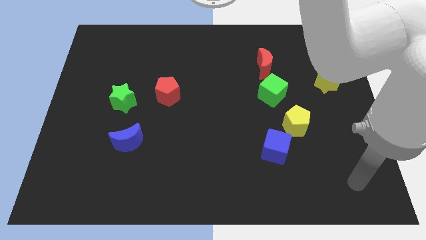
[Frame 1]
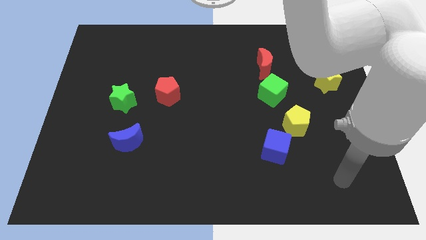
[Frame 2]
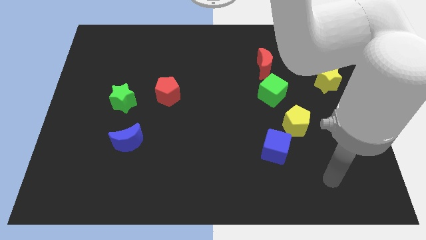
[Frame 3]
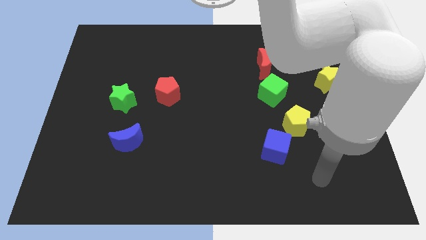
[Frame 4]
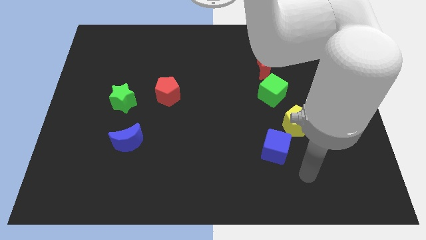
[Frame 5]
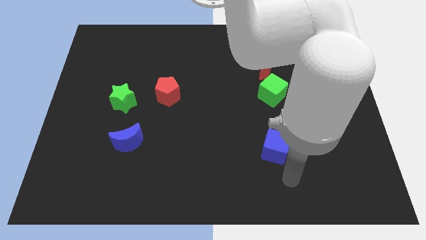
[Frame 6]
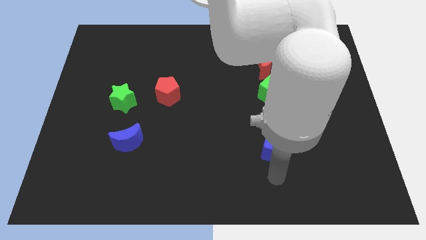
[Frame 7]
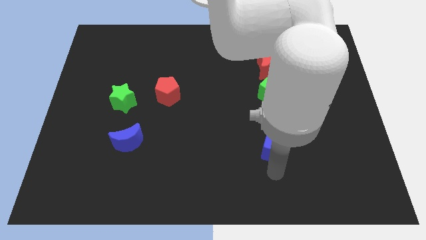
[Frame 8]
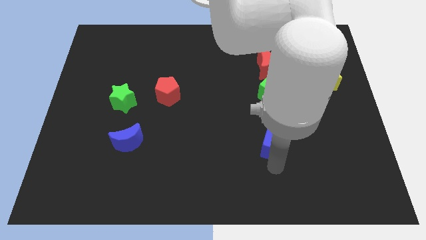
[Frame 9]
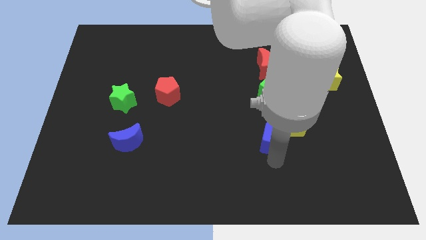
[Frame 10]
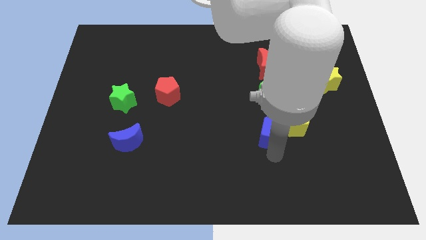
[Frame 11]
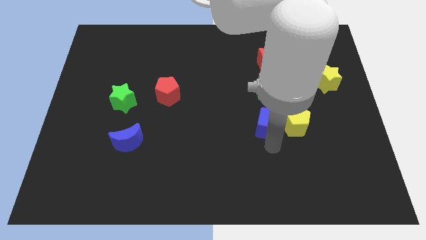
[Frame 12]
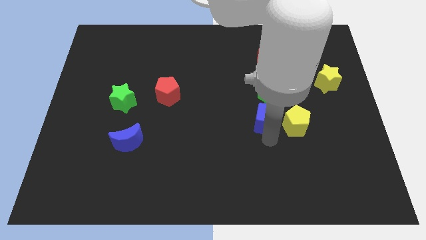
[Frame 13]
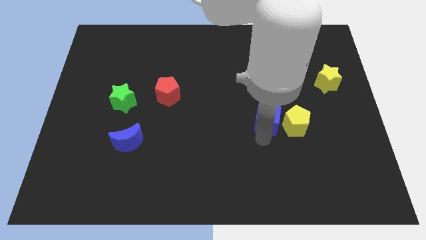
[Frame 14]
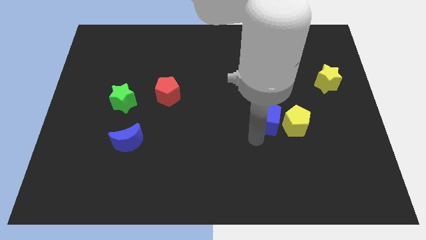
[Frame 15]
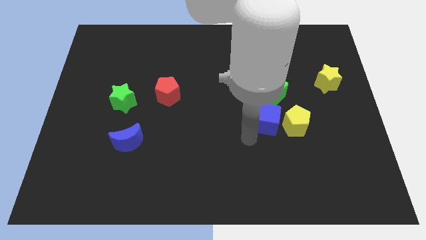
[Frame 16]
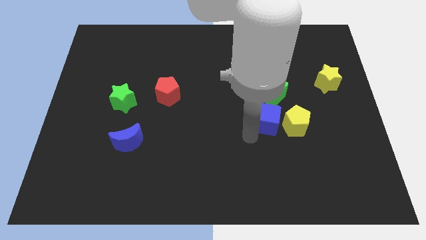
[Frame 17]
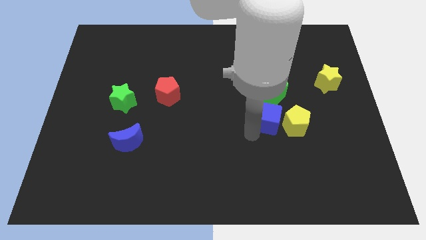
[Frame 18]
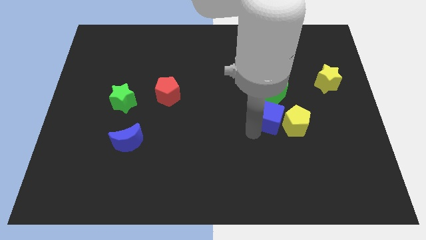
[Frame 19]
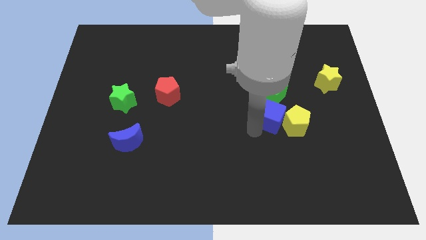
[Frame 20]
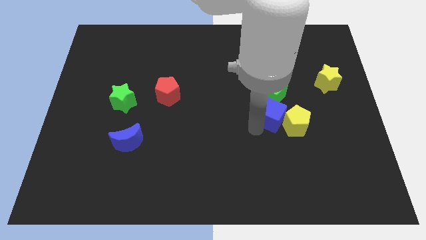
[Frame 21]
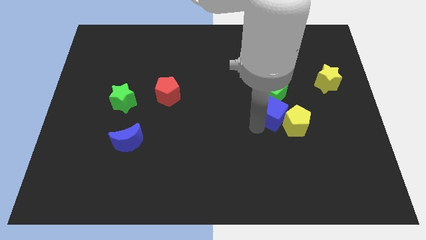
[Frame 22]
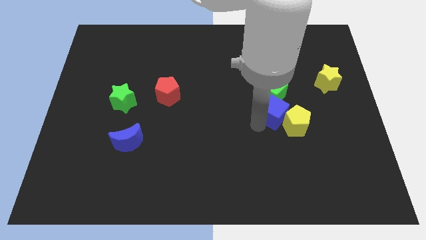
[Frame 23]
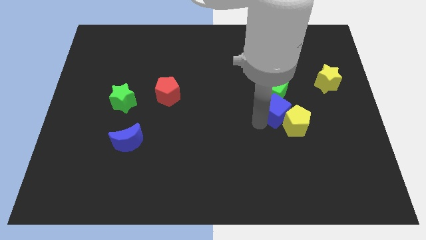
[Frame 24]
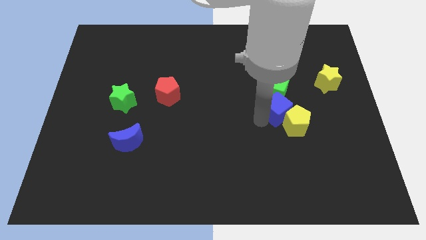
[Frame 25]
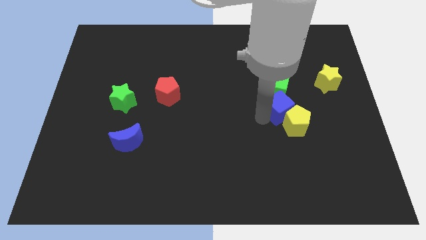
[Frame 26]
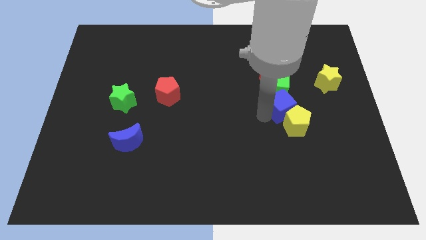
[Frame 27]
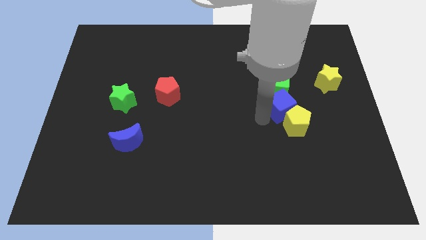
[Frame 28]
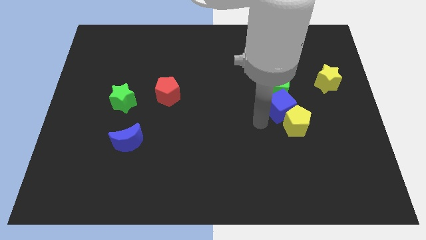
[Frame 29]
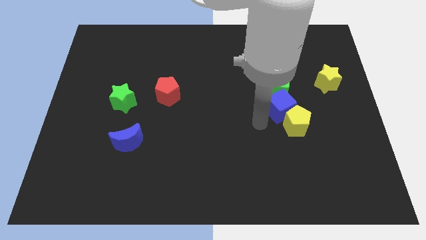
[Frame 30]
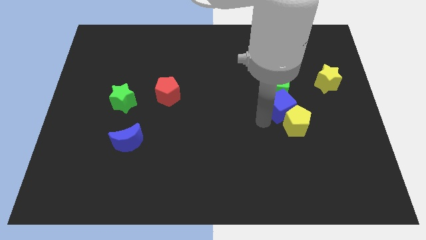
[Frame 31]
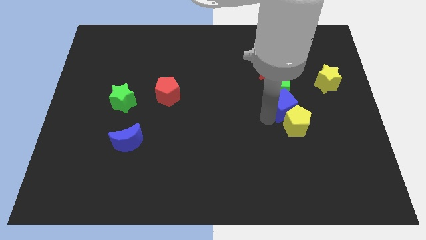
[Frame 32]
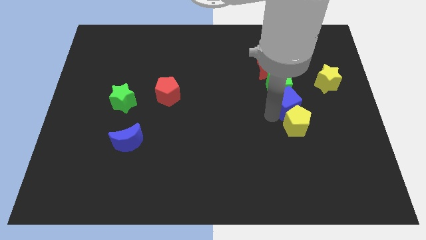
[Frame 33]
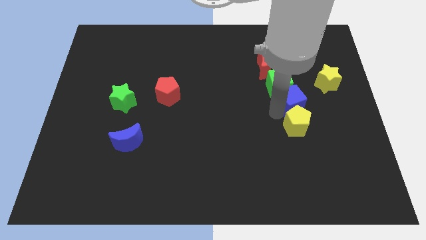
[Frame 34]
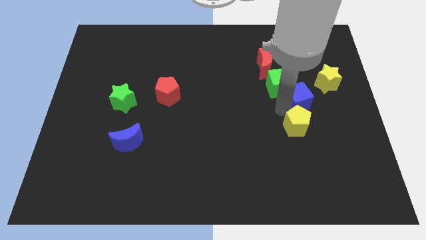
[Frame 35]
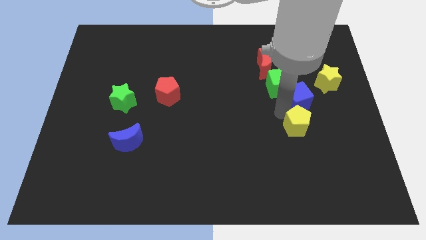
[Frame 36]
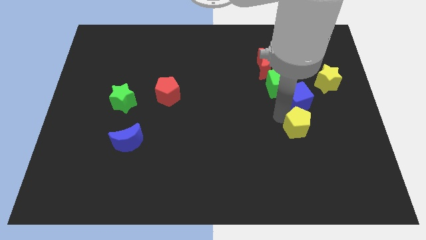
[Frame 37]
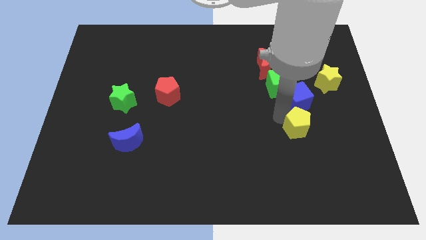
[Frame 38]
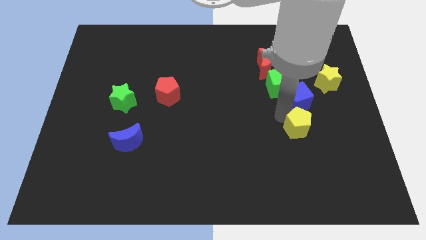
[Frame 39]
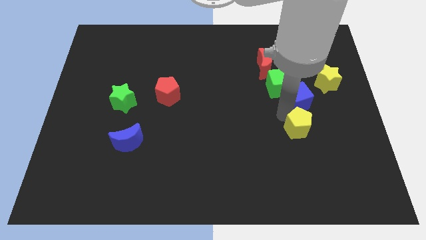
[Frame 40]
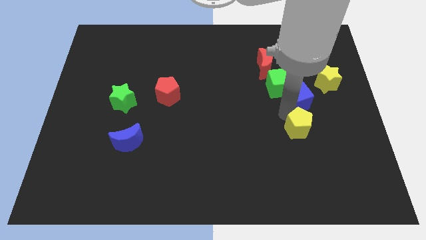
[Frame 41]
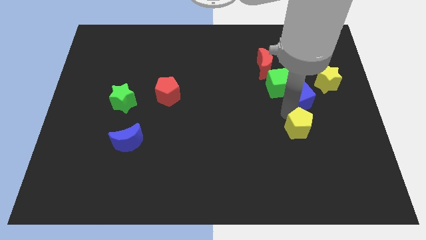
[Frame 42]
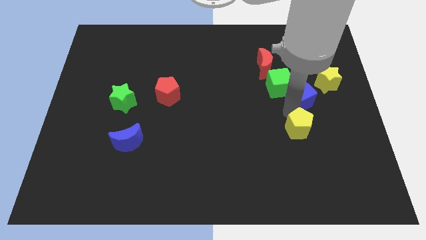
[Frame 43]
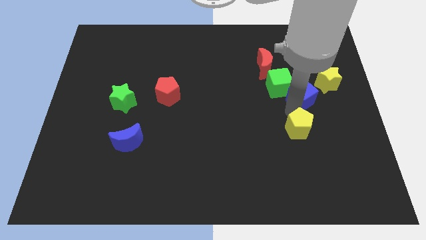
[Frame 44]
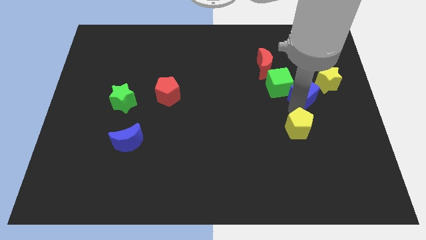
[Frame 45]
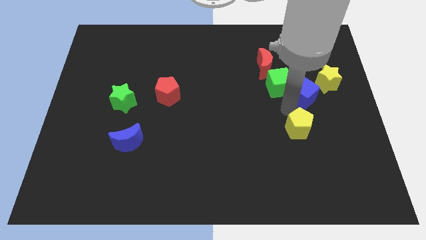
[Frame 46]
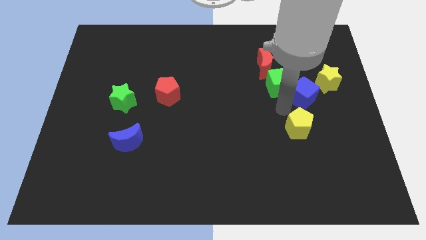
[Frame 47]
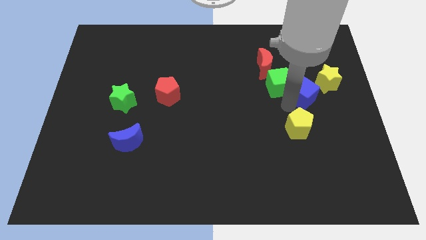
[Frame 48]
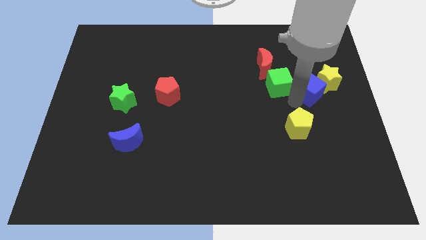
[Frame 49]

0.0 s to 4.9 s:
put the blue cube close to the yellow star

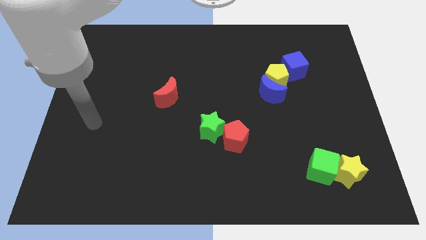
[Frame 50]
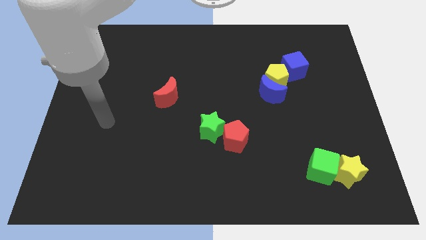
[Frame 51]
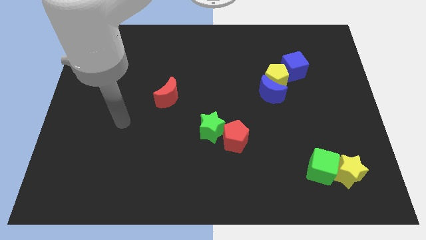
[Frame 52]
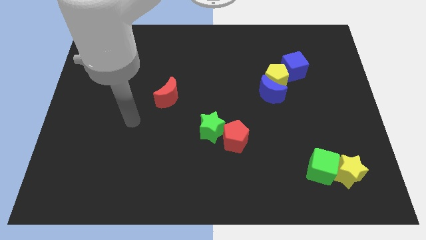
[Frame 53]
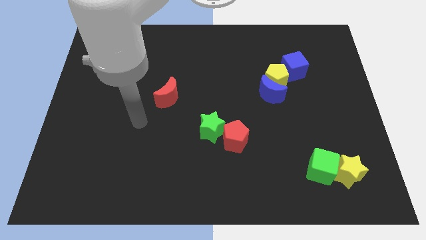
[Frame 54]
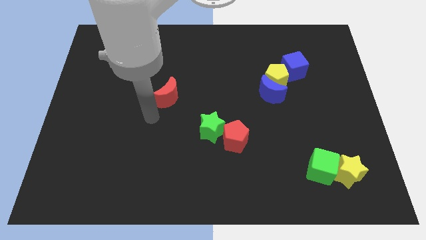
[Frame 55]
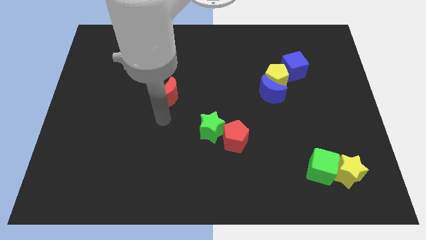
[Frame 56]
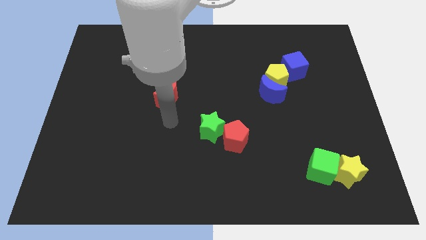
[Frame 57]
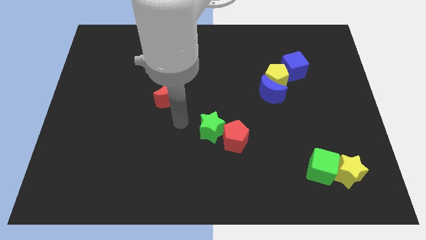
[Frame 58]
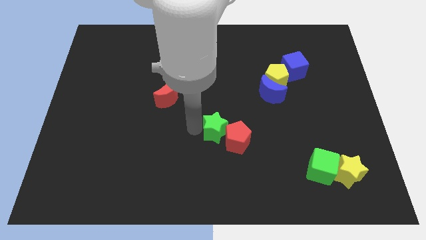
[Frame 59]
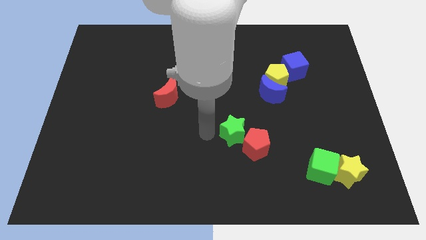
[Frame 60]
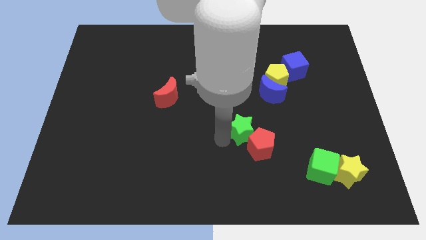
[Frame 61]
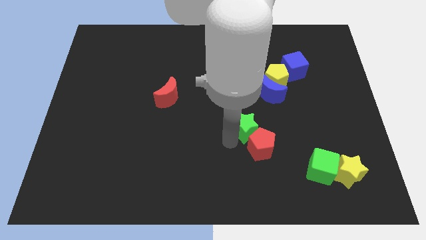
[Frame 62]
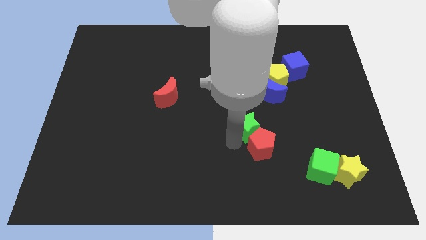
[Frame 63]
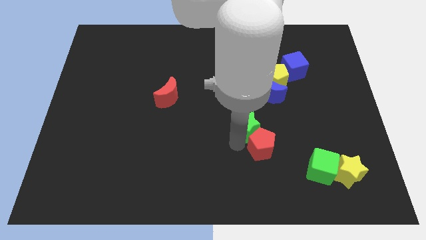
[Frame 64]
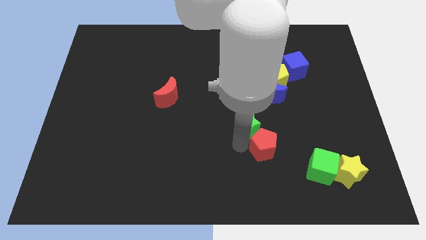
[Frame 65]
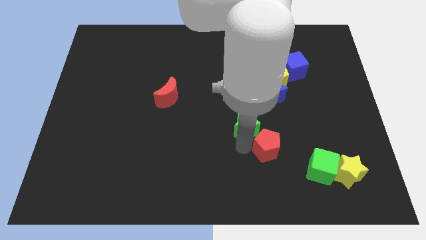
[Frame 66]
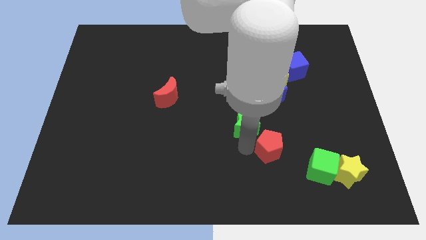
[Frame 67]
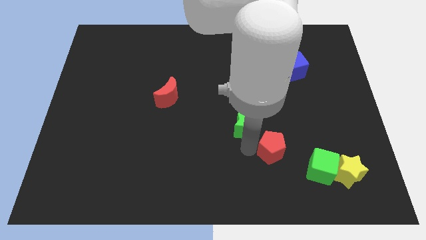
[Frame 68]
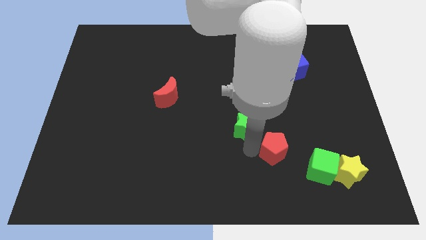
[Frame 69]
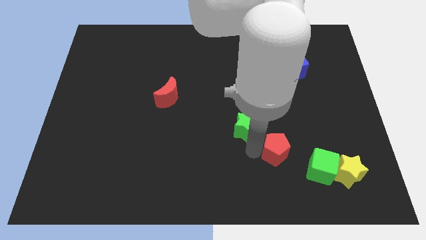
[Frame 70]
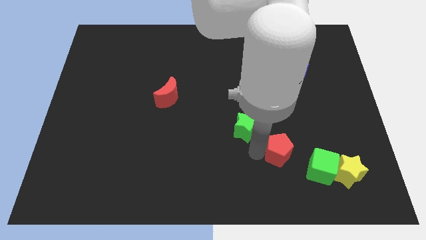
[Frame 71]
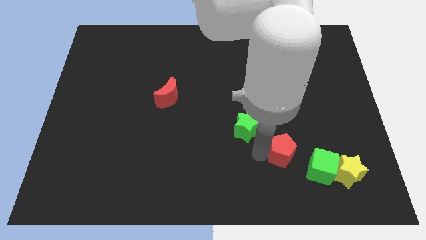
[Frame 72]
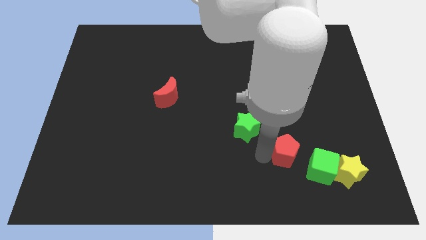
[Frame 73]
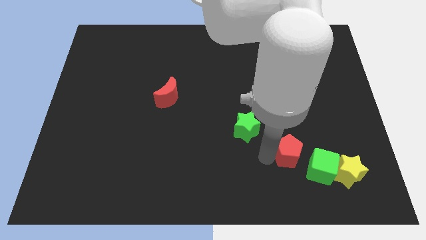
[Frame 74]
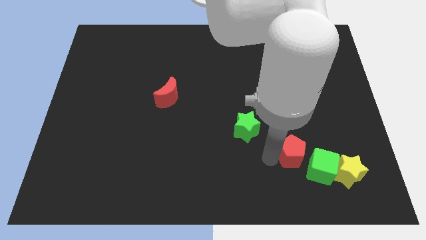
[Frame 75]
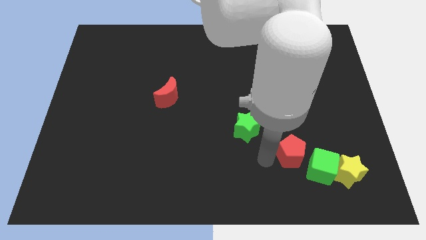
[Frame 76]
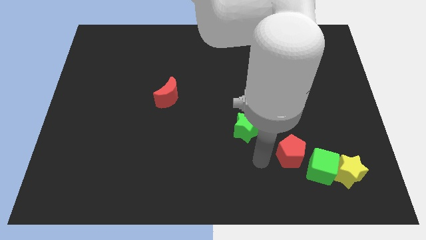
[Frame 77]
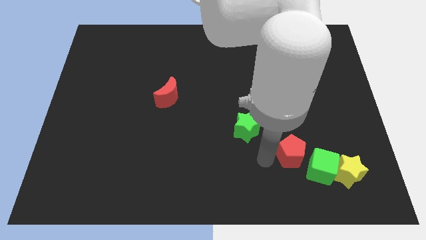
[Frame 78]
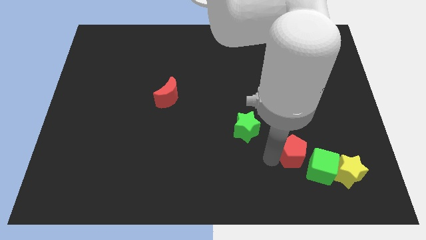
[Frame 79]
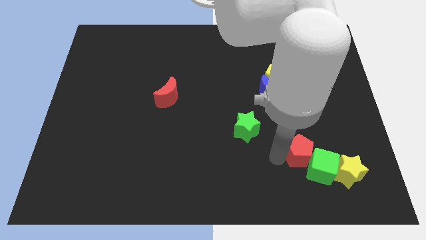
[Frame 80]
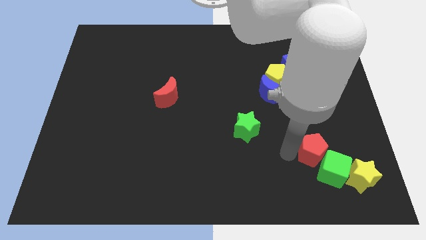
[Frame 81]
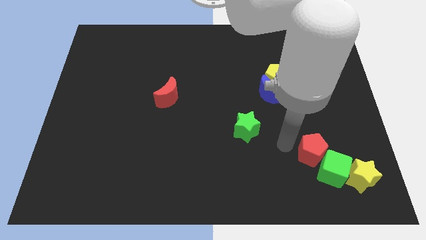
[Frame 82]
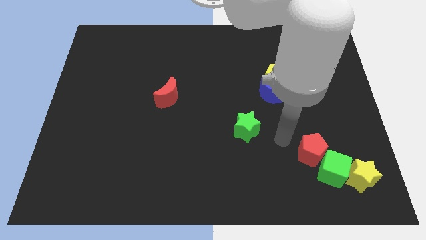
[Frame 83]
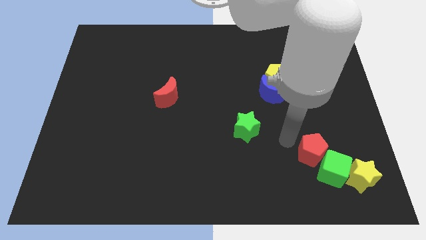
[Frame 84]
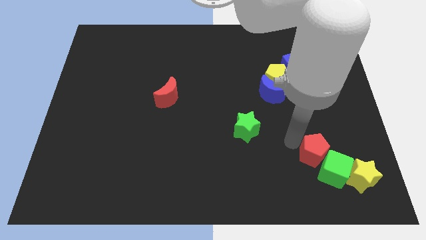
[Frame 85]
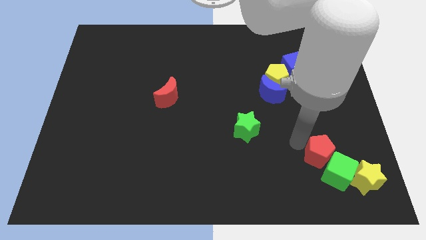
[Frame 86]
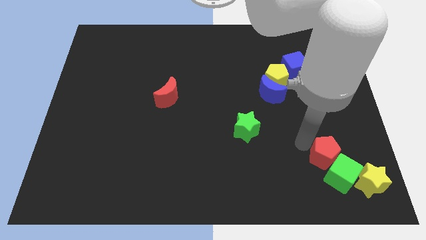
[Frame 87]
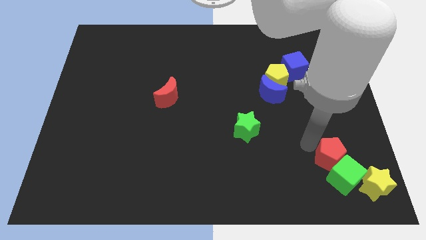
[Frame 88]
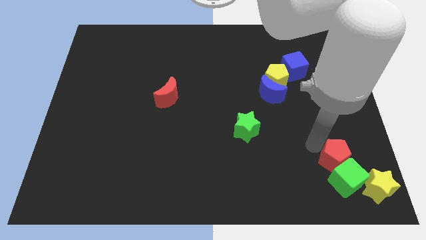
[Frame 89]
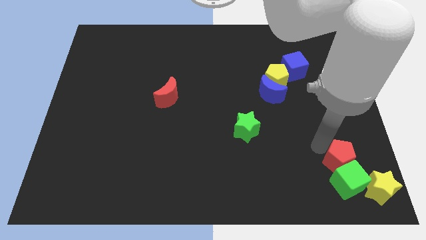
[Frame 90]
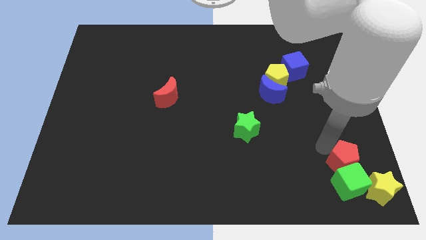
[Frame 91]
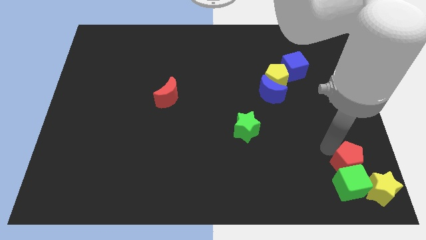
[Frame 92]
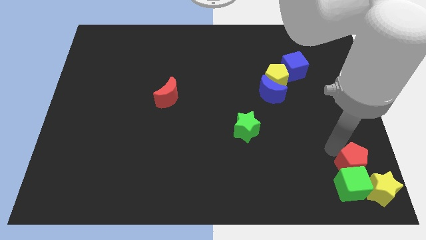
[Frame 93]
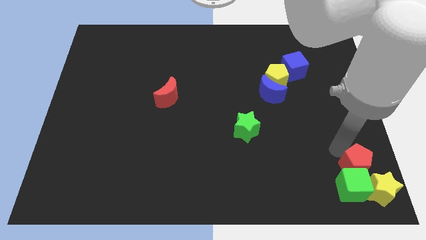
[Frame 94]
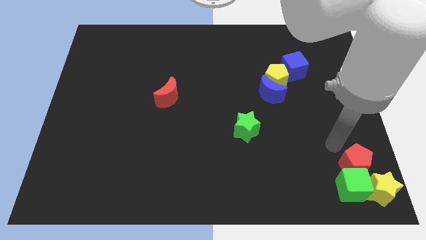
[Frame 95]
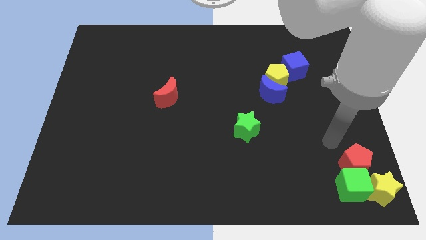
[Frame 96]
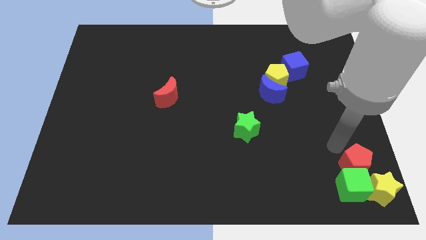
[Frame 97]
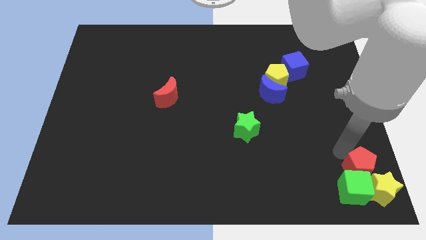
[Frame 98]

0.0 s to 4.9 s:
push the red pentagon to the yellow star
